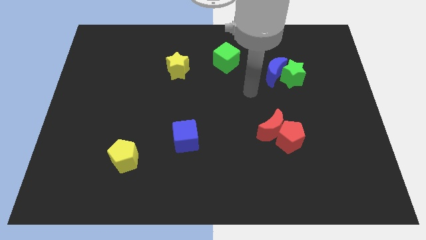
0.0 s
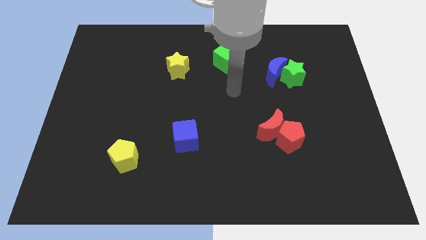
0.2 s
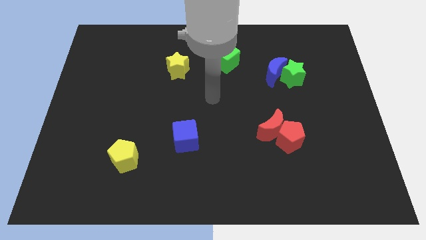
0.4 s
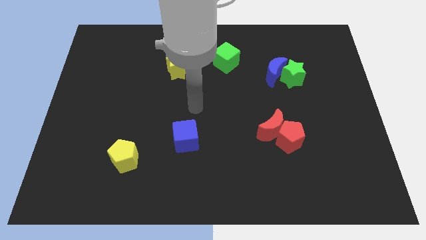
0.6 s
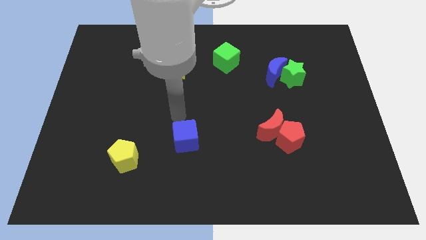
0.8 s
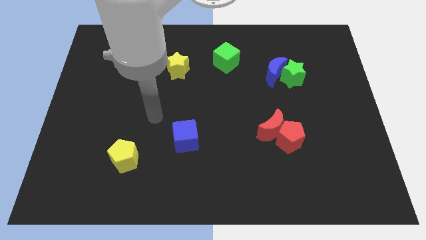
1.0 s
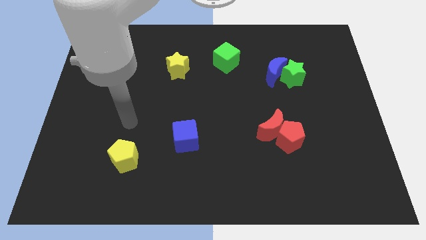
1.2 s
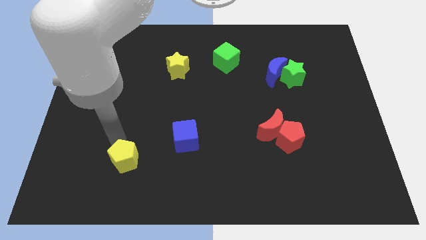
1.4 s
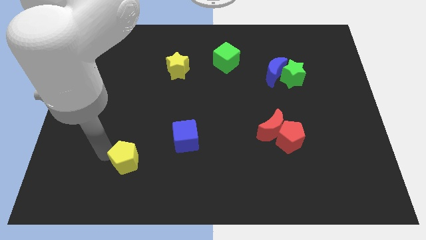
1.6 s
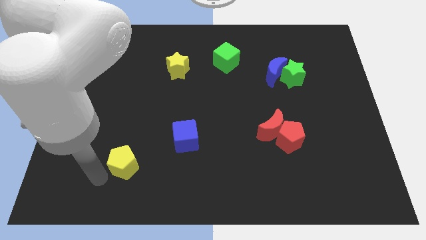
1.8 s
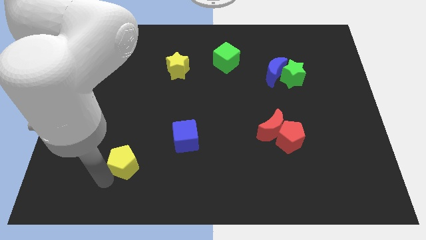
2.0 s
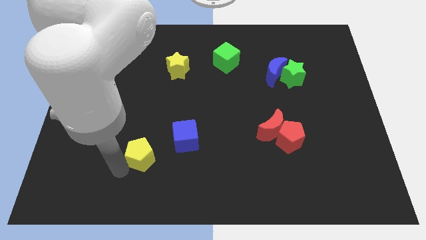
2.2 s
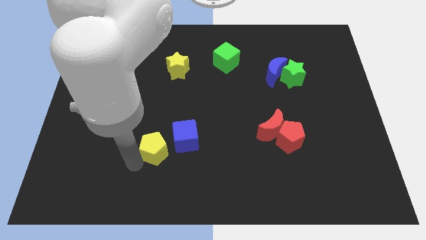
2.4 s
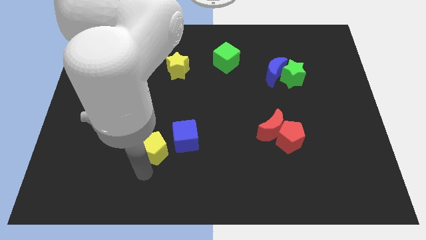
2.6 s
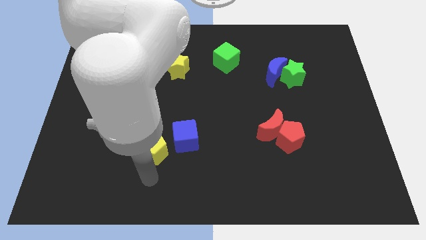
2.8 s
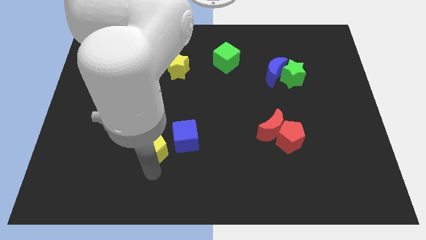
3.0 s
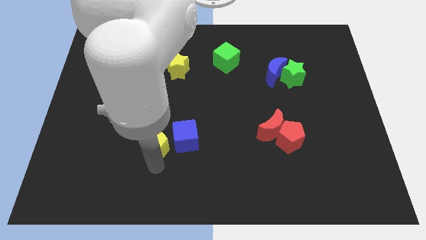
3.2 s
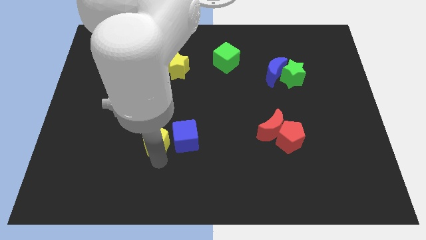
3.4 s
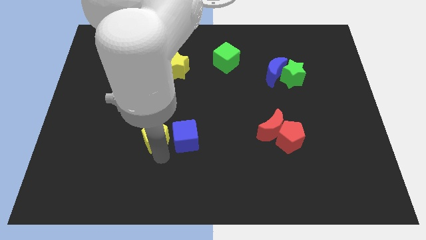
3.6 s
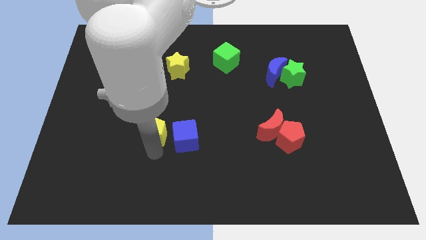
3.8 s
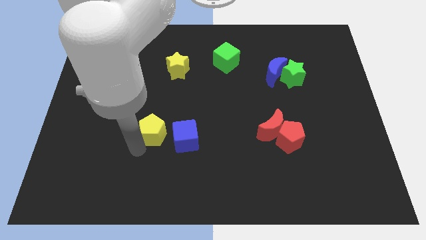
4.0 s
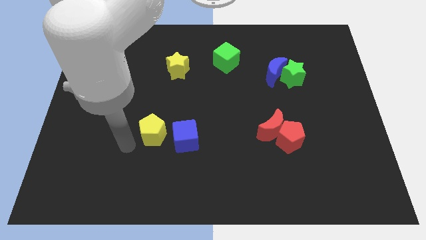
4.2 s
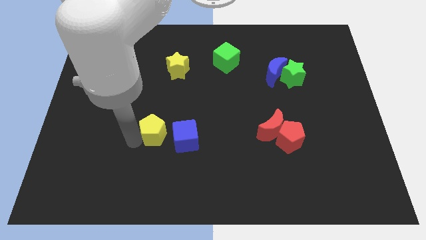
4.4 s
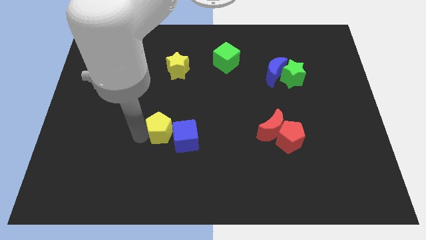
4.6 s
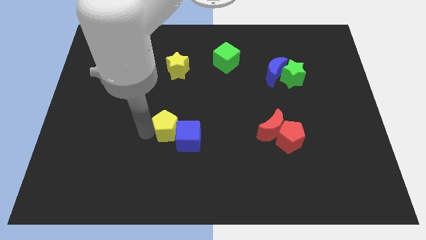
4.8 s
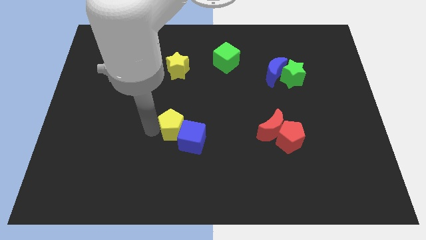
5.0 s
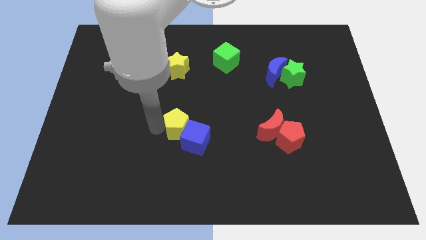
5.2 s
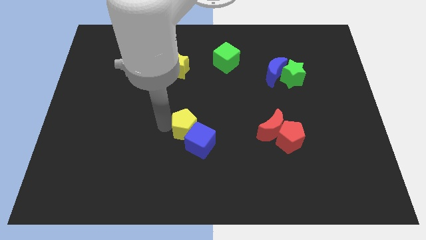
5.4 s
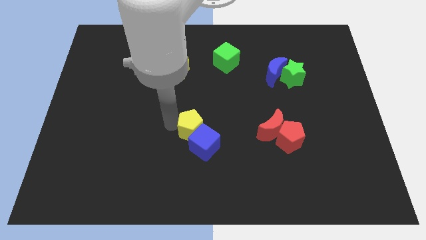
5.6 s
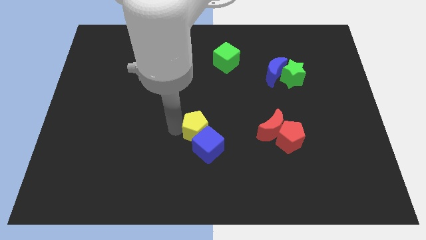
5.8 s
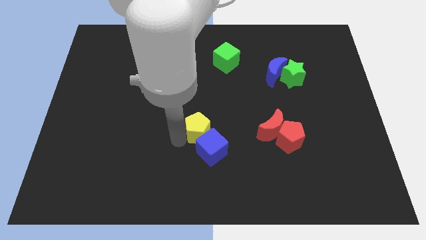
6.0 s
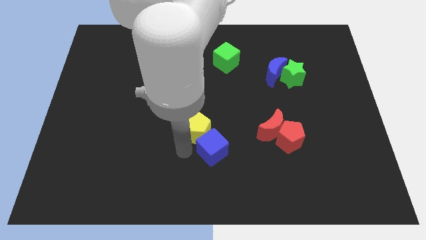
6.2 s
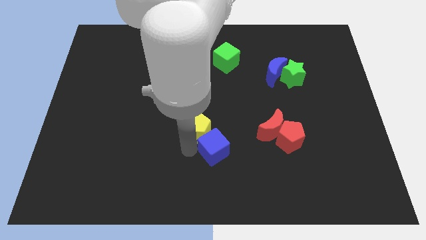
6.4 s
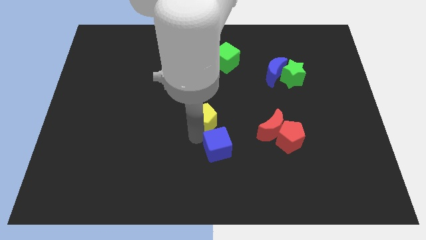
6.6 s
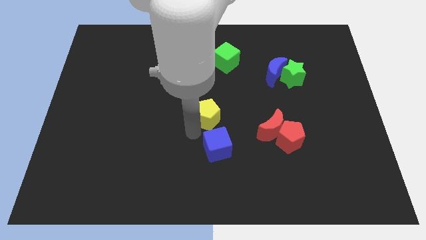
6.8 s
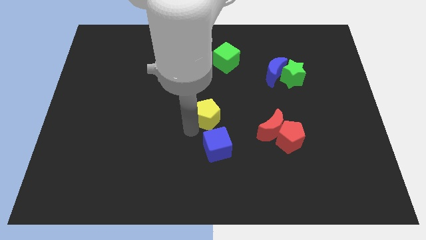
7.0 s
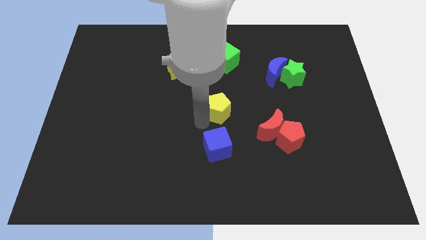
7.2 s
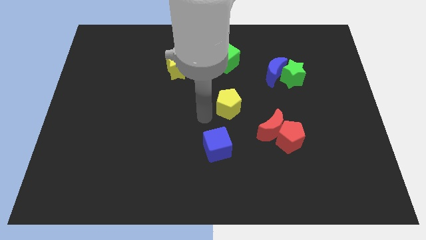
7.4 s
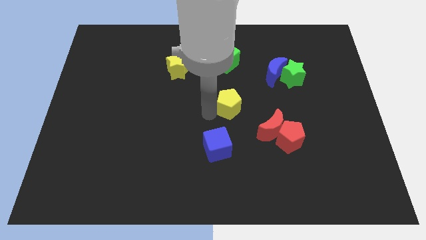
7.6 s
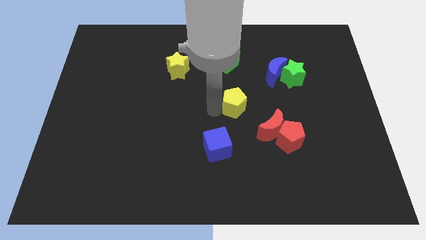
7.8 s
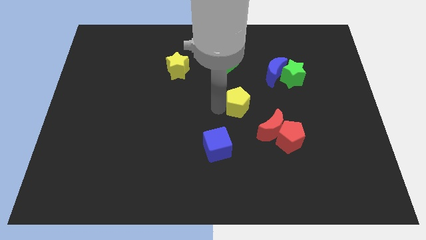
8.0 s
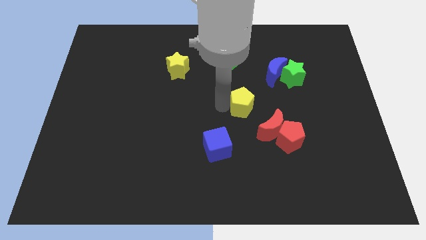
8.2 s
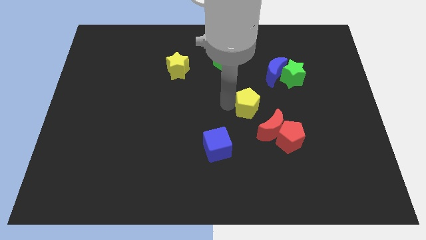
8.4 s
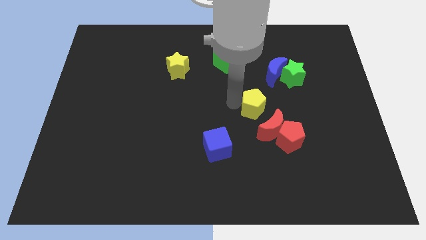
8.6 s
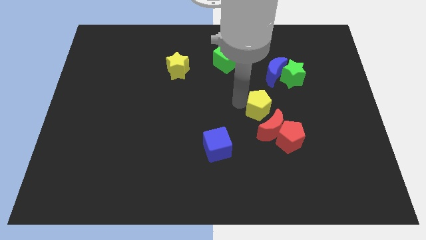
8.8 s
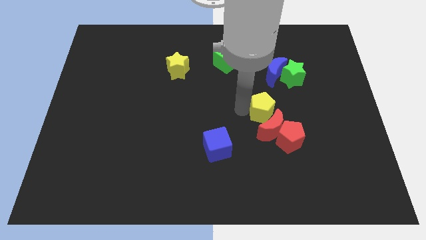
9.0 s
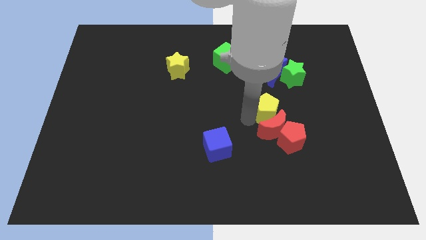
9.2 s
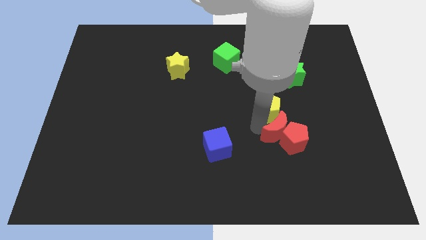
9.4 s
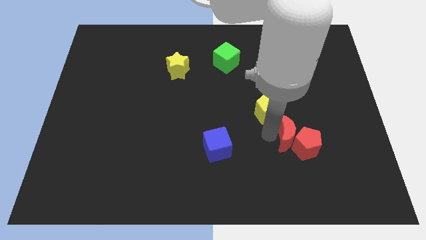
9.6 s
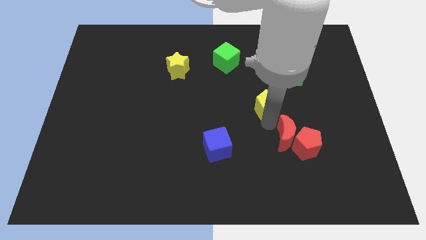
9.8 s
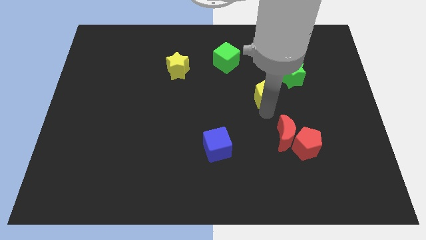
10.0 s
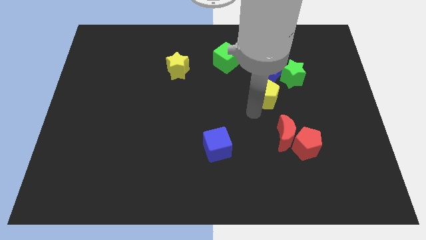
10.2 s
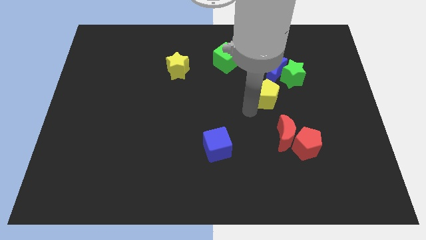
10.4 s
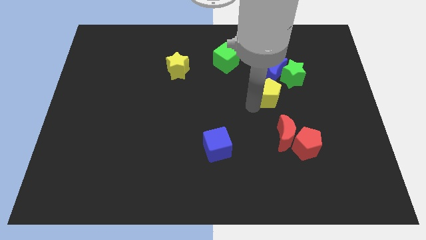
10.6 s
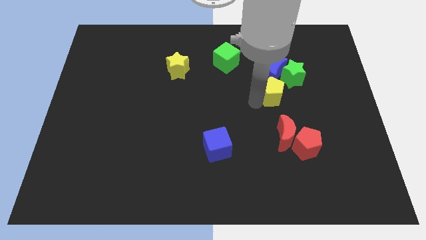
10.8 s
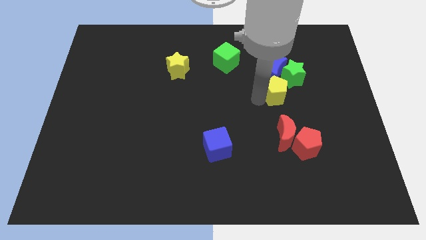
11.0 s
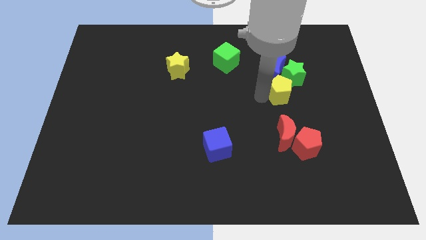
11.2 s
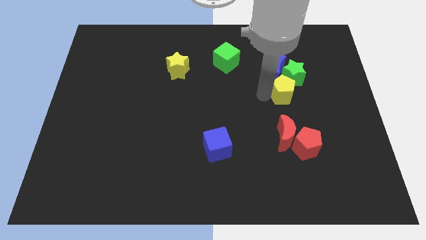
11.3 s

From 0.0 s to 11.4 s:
move the yellow pentagon close to the green star

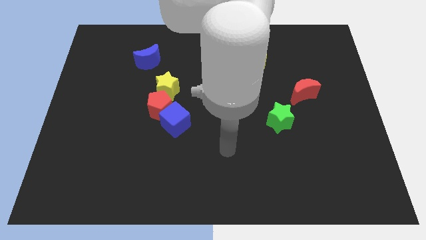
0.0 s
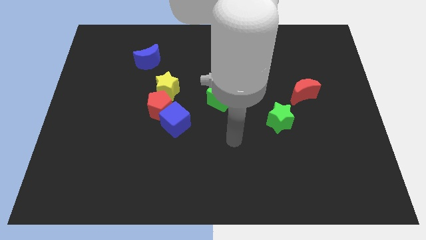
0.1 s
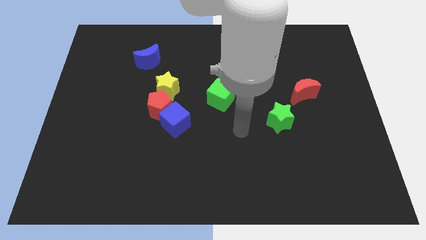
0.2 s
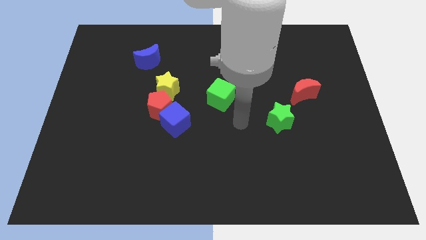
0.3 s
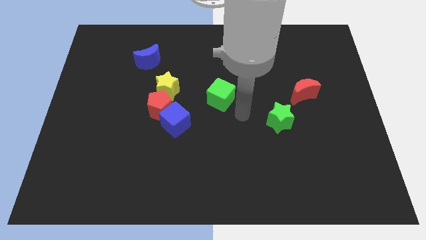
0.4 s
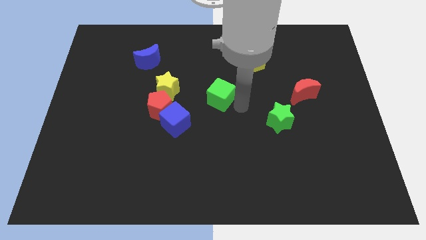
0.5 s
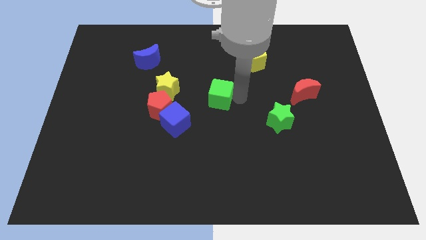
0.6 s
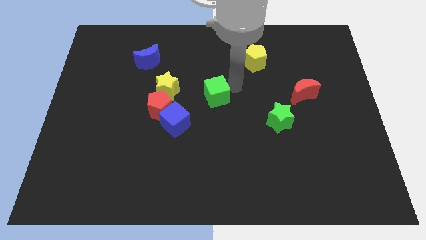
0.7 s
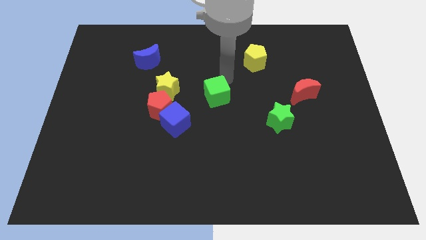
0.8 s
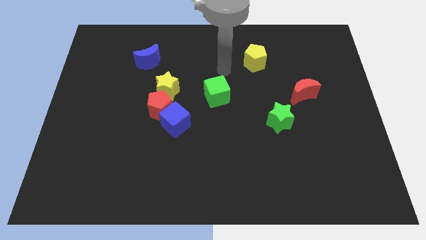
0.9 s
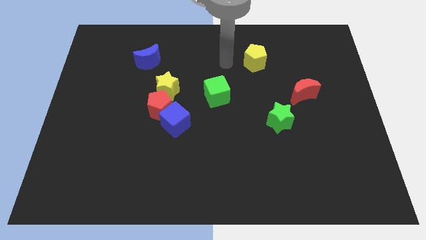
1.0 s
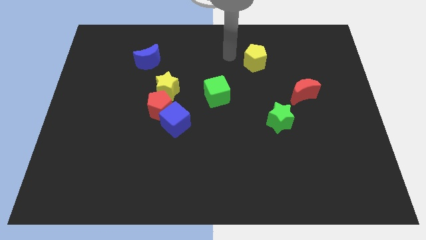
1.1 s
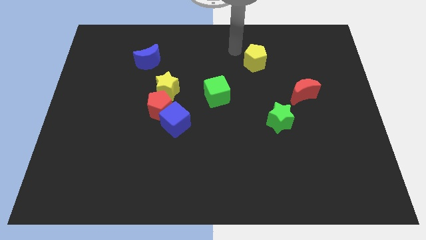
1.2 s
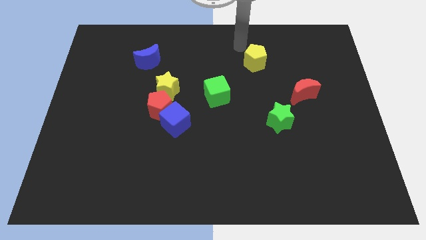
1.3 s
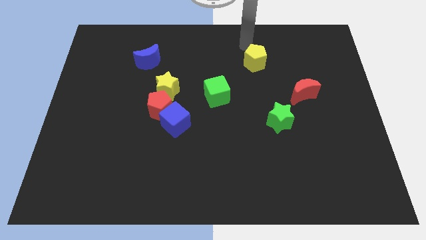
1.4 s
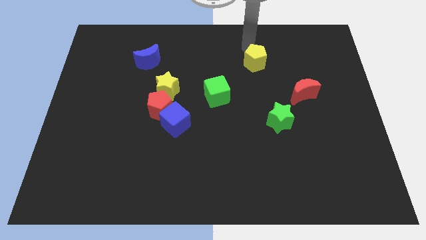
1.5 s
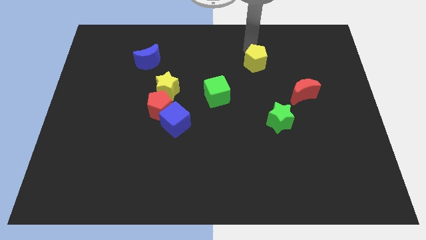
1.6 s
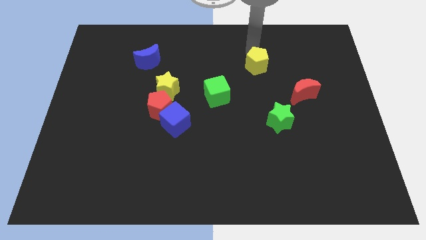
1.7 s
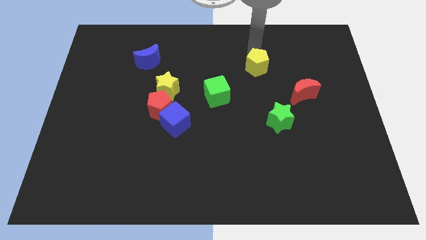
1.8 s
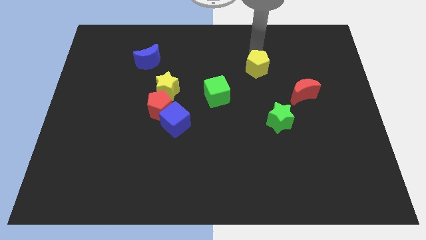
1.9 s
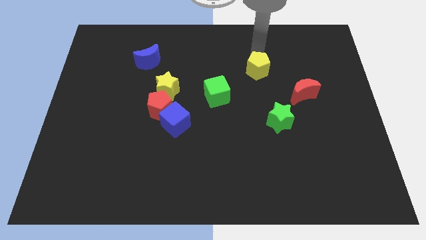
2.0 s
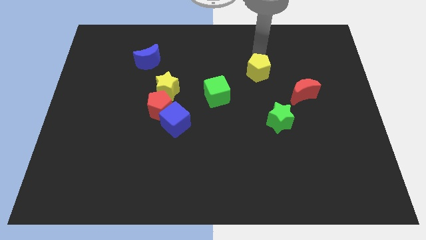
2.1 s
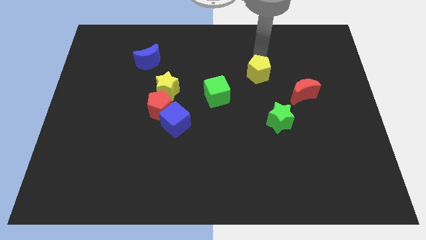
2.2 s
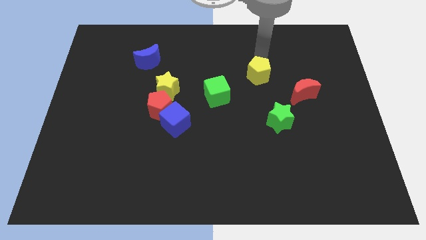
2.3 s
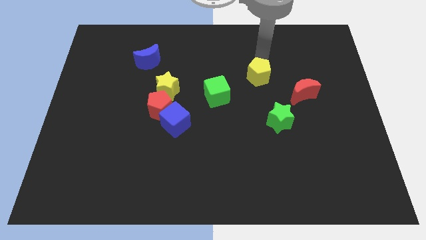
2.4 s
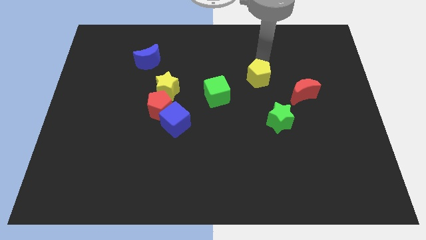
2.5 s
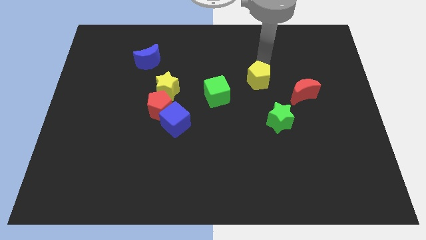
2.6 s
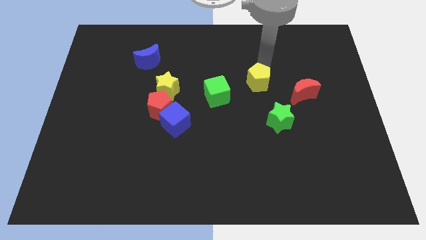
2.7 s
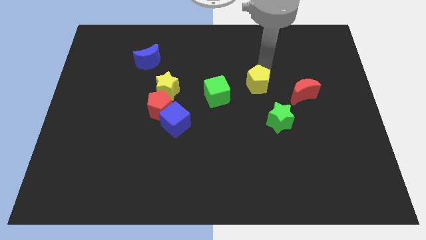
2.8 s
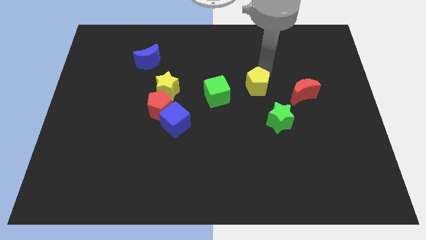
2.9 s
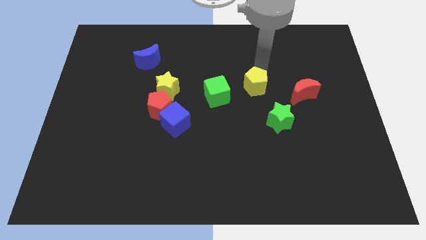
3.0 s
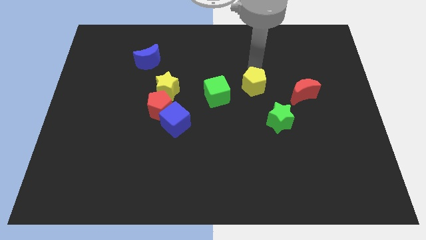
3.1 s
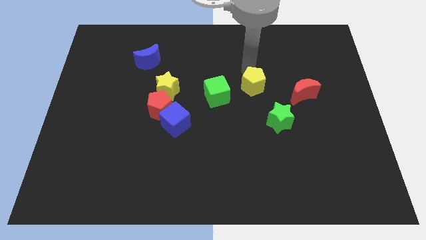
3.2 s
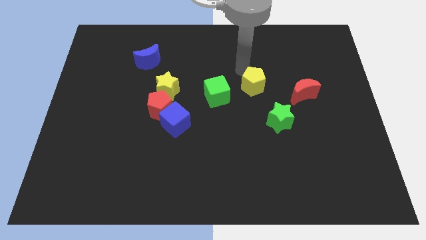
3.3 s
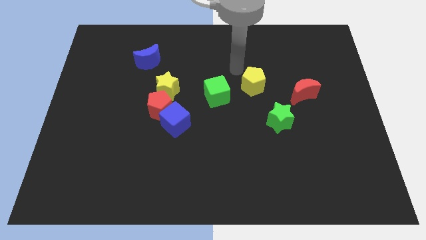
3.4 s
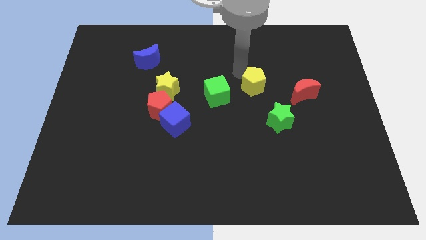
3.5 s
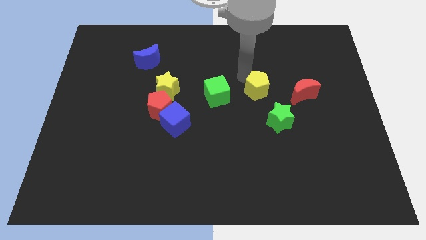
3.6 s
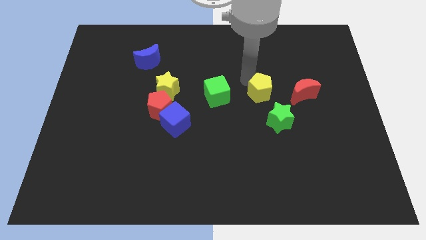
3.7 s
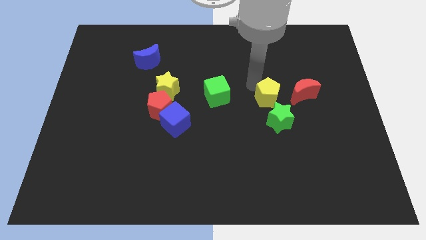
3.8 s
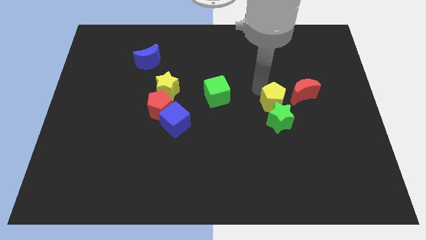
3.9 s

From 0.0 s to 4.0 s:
slide the yellow pentagon towards the green star
